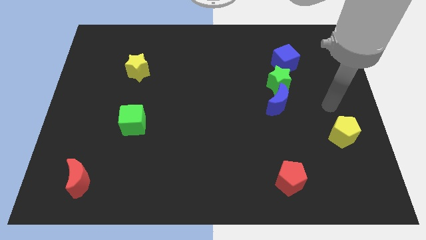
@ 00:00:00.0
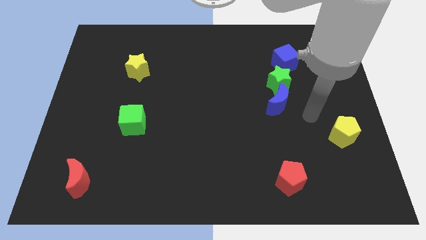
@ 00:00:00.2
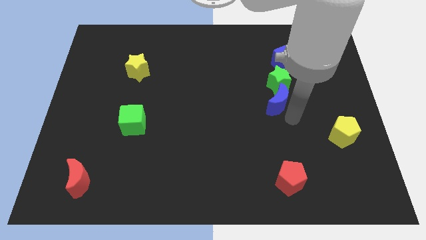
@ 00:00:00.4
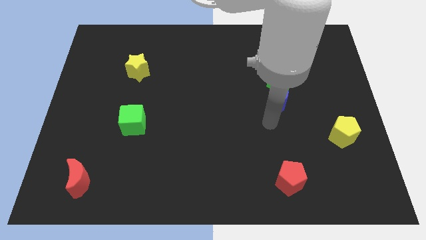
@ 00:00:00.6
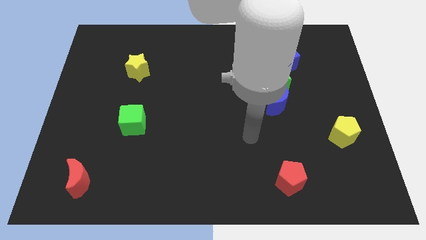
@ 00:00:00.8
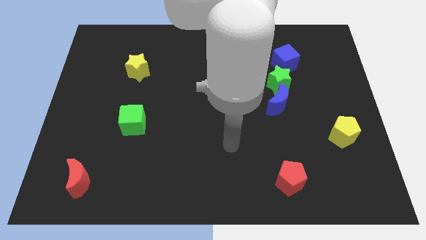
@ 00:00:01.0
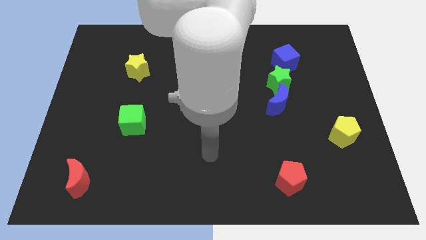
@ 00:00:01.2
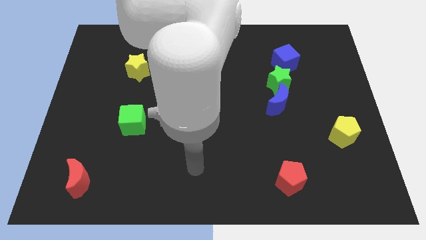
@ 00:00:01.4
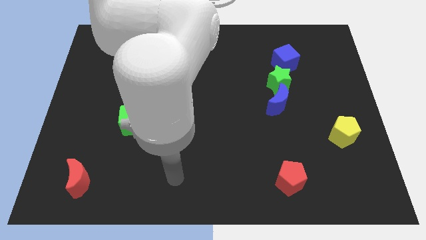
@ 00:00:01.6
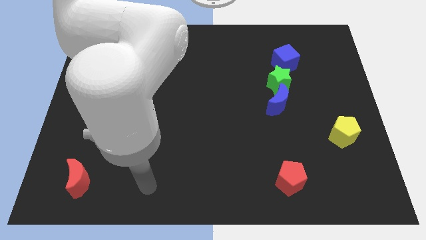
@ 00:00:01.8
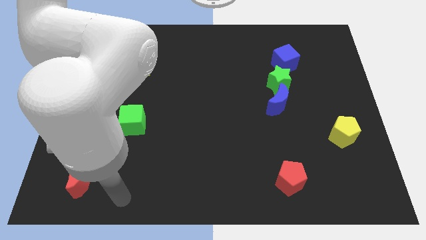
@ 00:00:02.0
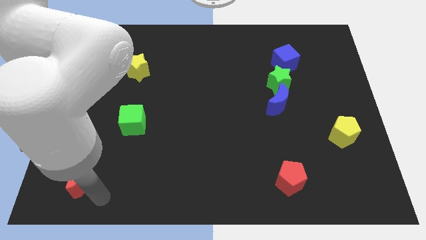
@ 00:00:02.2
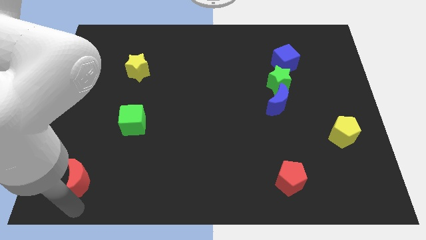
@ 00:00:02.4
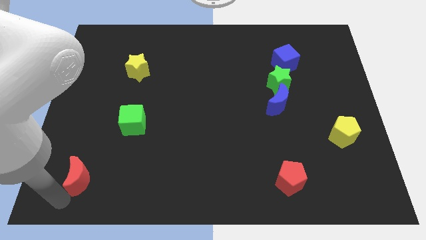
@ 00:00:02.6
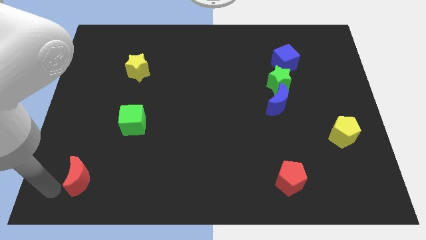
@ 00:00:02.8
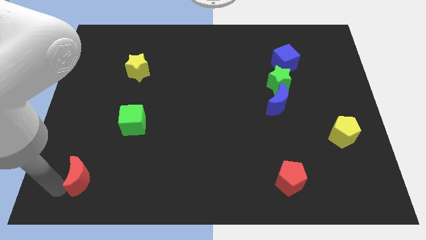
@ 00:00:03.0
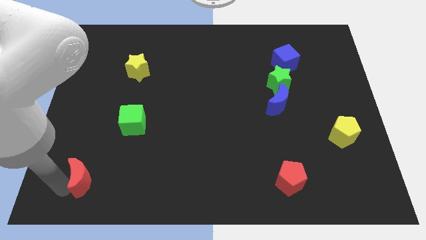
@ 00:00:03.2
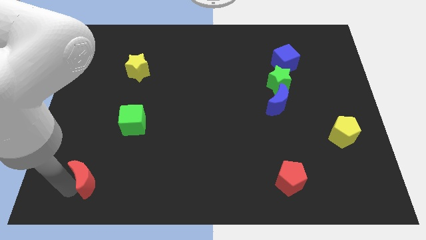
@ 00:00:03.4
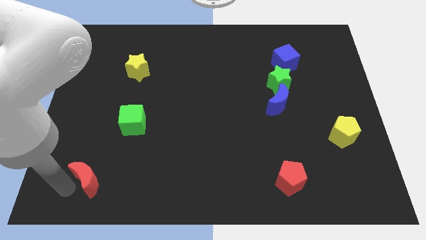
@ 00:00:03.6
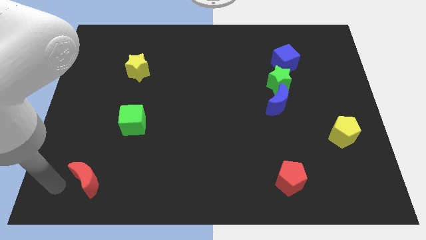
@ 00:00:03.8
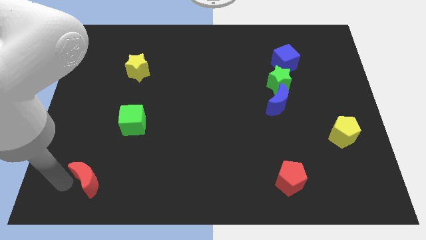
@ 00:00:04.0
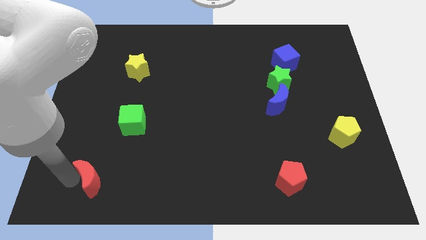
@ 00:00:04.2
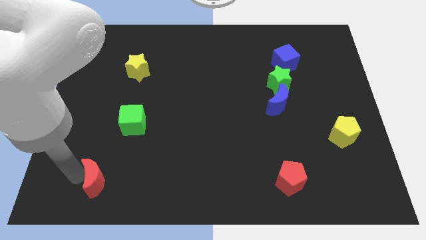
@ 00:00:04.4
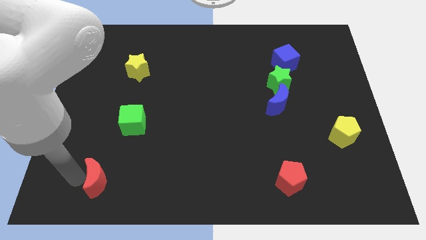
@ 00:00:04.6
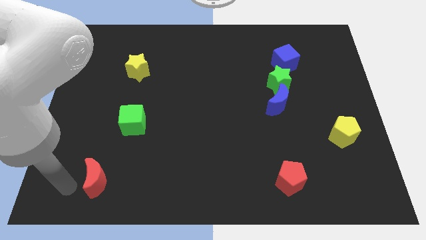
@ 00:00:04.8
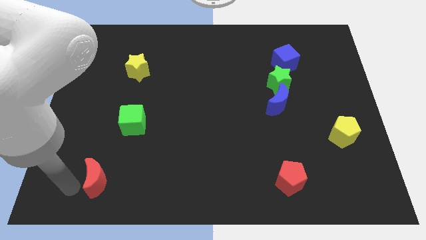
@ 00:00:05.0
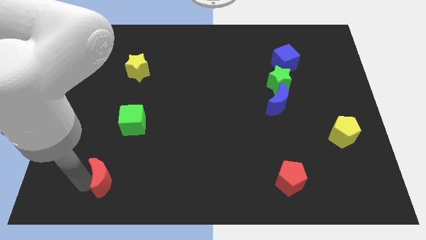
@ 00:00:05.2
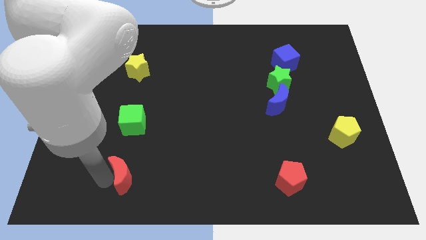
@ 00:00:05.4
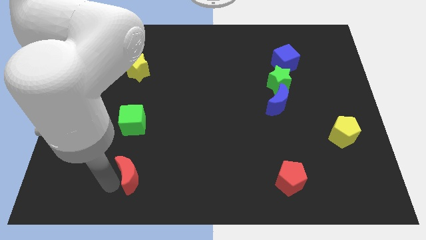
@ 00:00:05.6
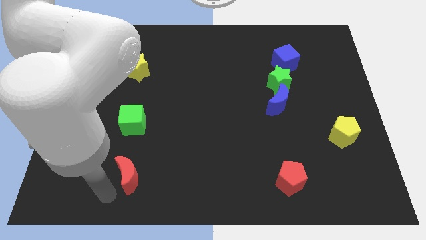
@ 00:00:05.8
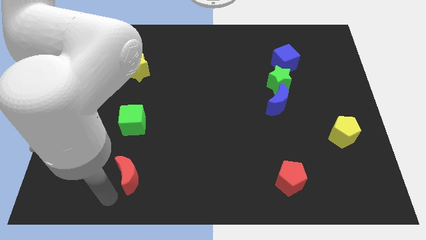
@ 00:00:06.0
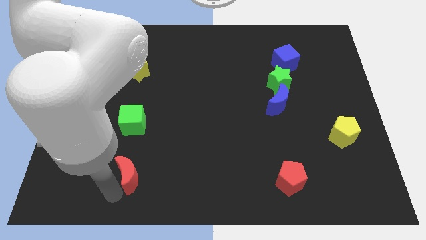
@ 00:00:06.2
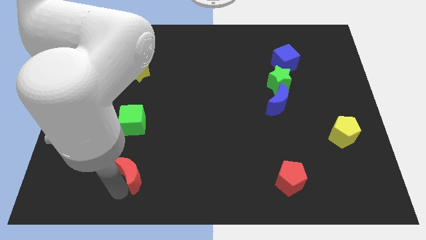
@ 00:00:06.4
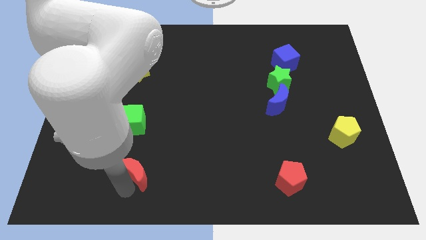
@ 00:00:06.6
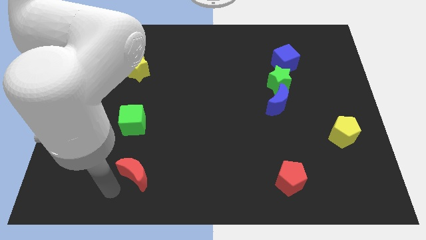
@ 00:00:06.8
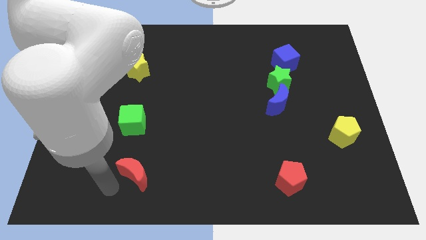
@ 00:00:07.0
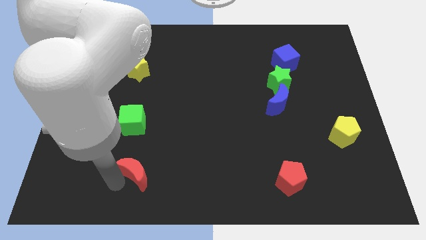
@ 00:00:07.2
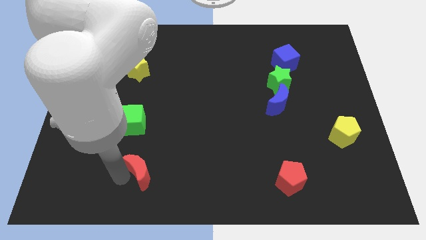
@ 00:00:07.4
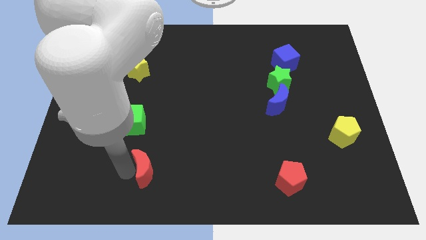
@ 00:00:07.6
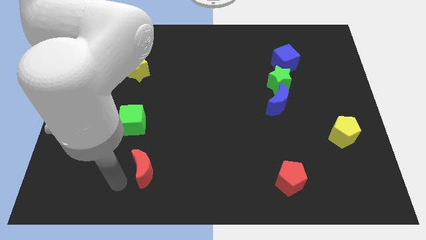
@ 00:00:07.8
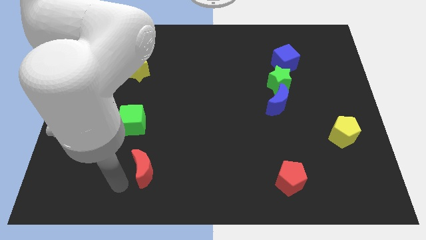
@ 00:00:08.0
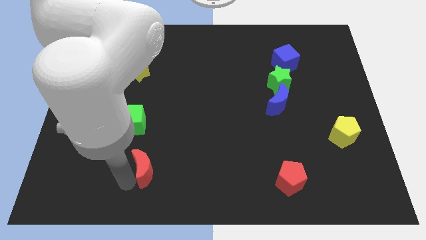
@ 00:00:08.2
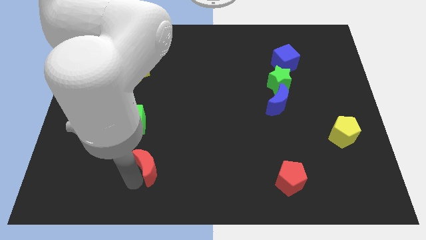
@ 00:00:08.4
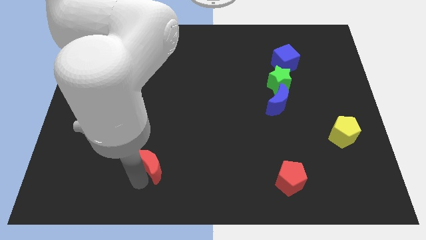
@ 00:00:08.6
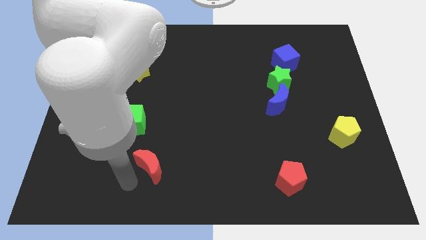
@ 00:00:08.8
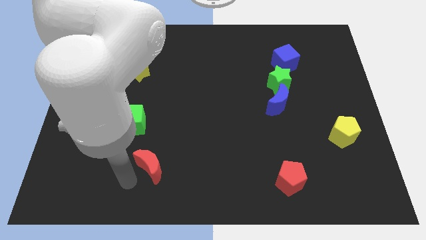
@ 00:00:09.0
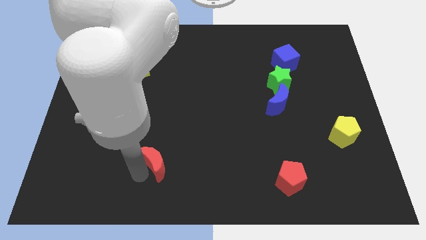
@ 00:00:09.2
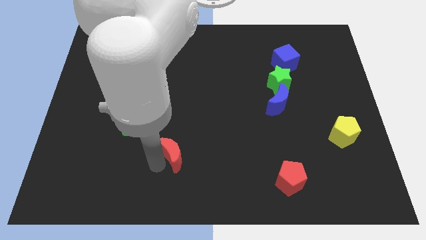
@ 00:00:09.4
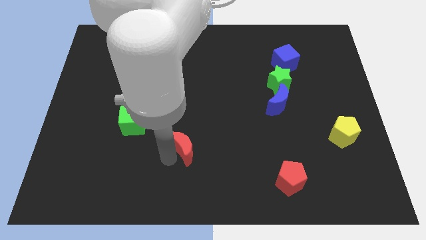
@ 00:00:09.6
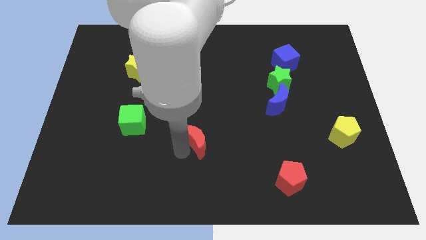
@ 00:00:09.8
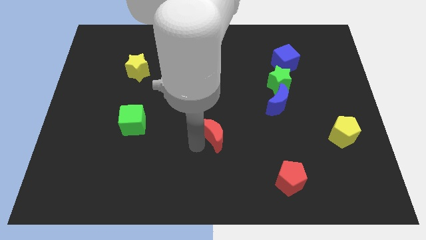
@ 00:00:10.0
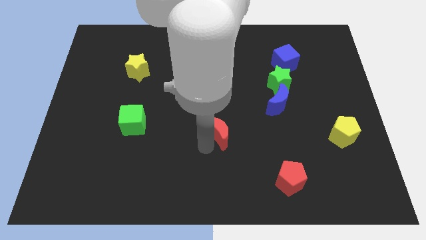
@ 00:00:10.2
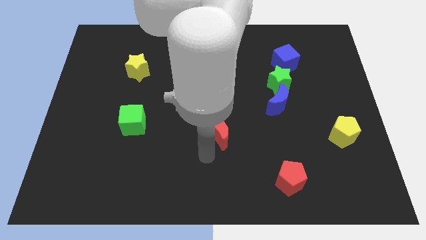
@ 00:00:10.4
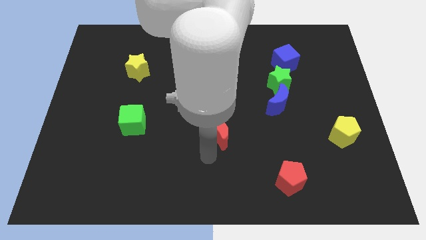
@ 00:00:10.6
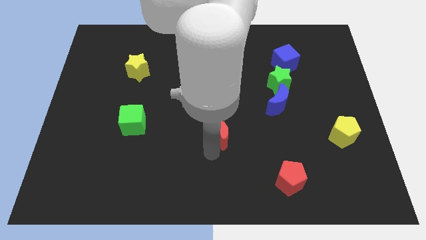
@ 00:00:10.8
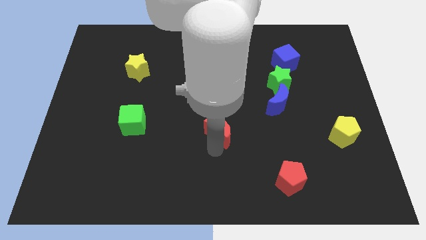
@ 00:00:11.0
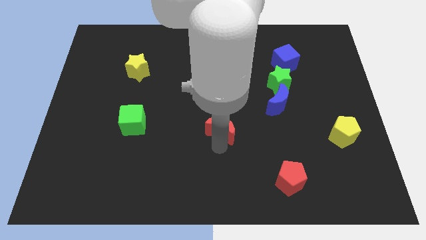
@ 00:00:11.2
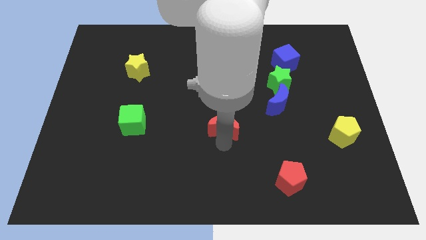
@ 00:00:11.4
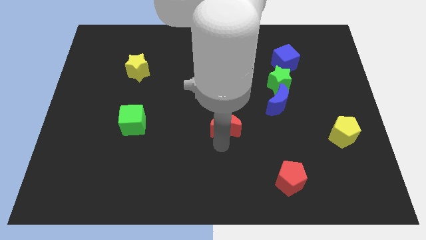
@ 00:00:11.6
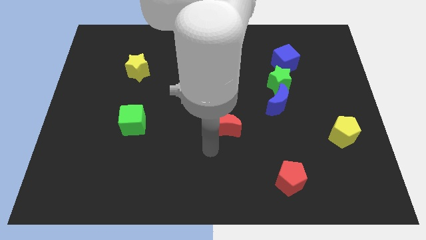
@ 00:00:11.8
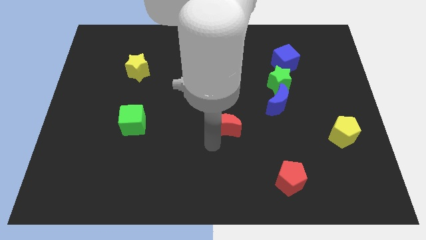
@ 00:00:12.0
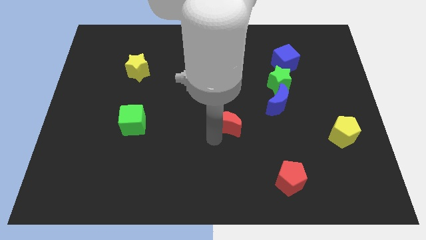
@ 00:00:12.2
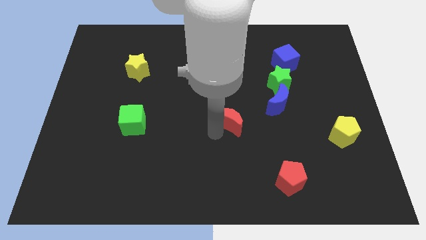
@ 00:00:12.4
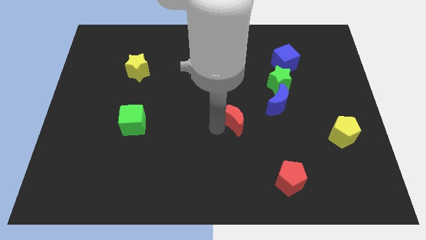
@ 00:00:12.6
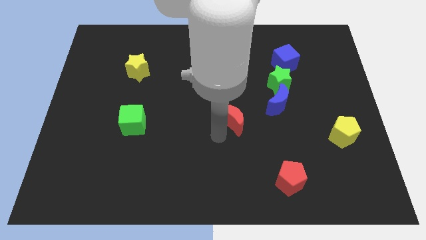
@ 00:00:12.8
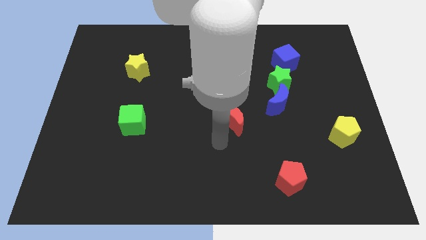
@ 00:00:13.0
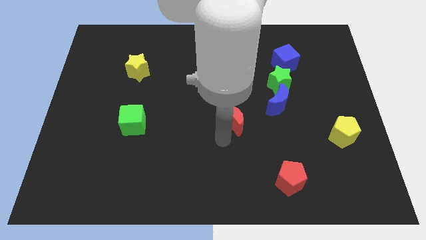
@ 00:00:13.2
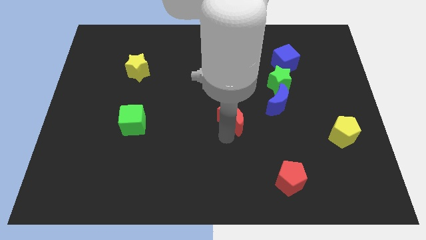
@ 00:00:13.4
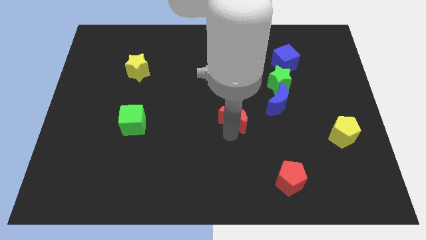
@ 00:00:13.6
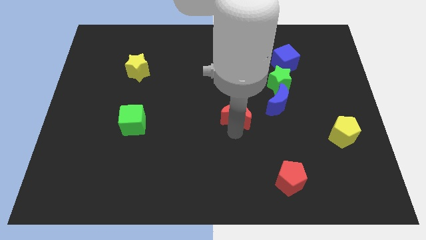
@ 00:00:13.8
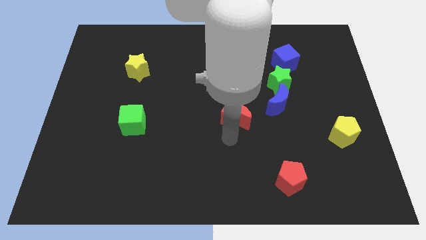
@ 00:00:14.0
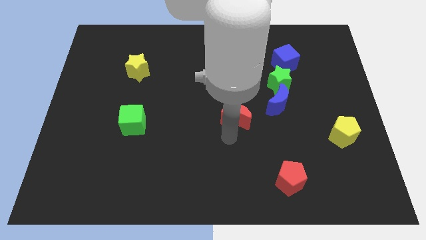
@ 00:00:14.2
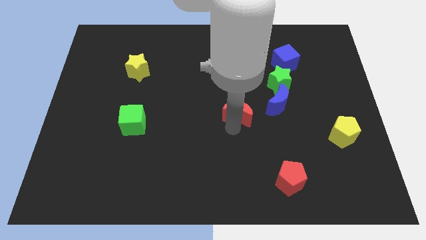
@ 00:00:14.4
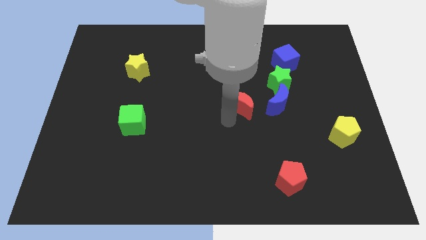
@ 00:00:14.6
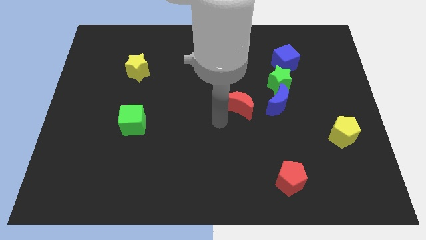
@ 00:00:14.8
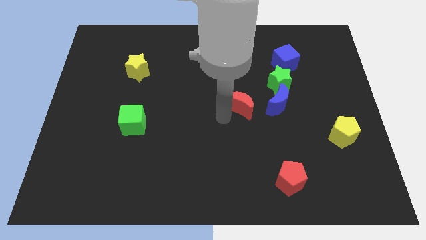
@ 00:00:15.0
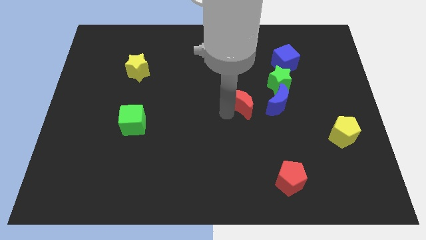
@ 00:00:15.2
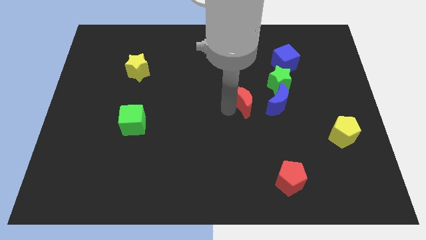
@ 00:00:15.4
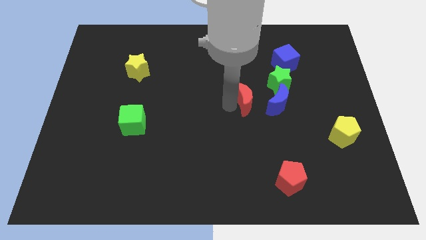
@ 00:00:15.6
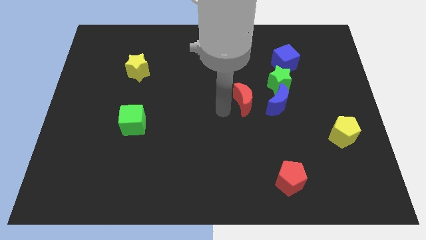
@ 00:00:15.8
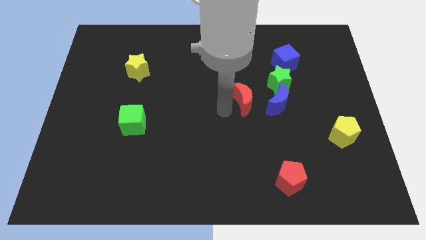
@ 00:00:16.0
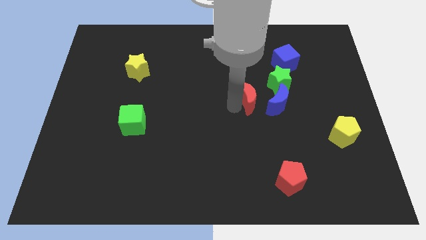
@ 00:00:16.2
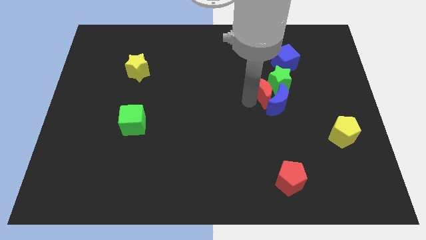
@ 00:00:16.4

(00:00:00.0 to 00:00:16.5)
slide the red moon close to the green star
